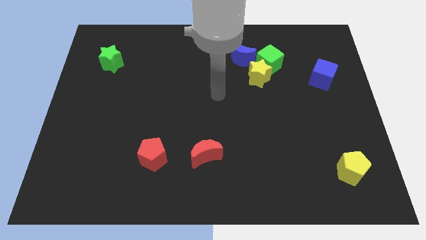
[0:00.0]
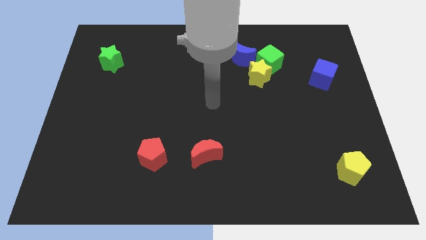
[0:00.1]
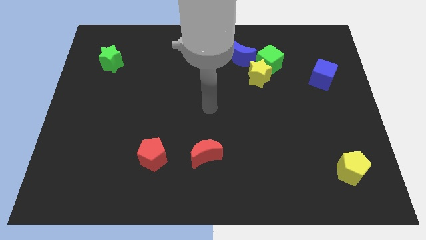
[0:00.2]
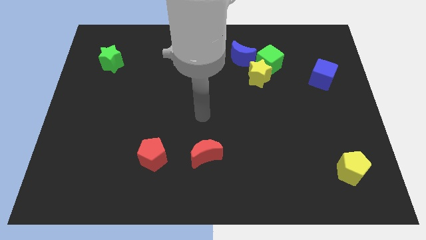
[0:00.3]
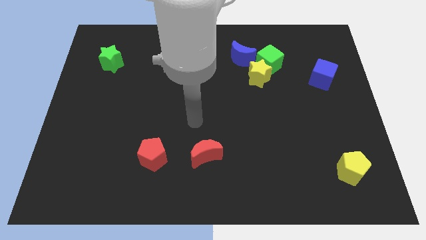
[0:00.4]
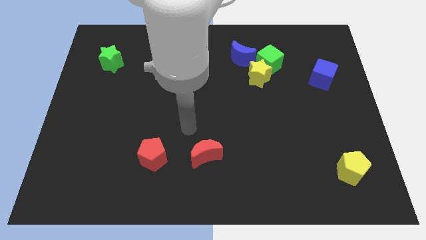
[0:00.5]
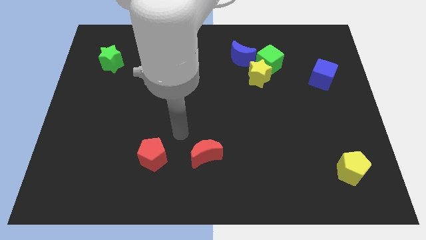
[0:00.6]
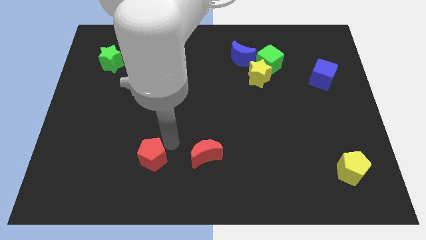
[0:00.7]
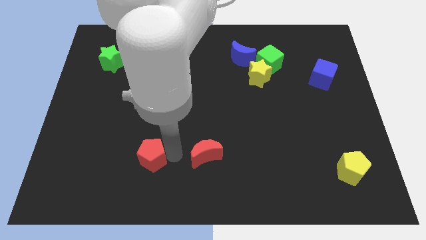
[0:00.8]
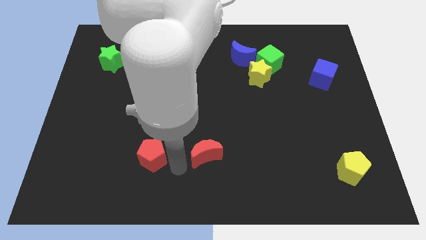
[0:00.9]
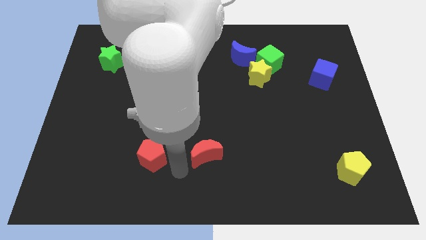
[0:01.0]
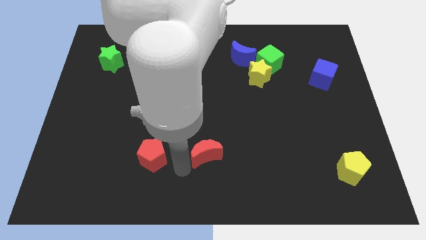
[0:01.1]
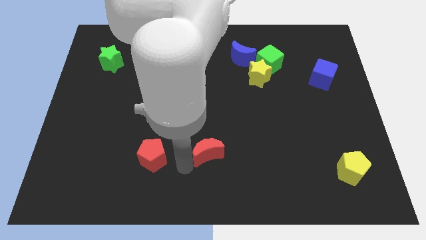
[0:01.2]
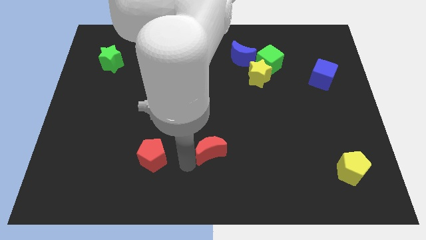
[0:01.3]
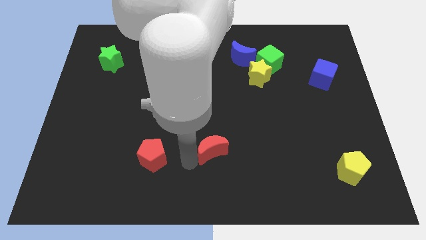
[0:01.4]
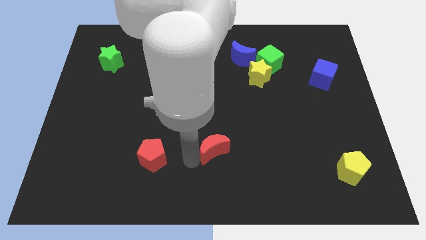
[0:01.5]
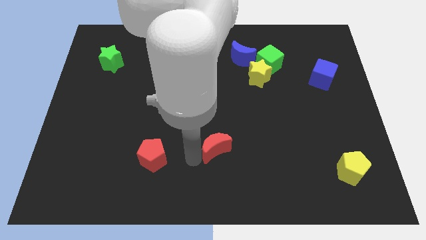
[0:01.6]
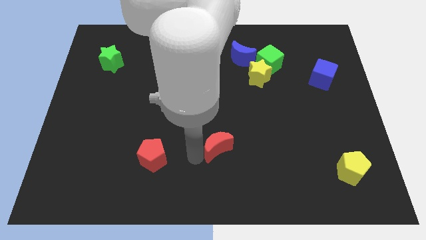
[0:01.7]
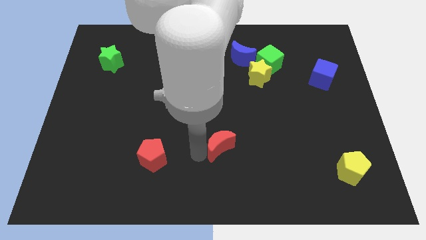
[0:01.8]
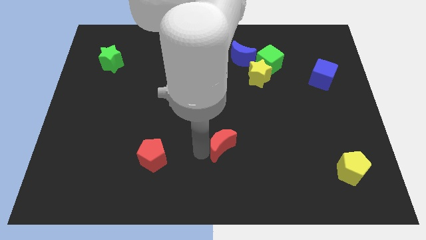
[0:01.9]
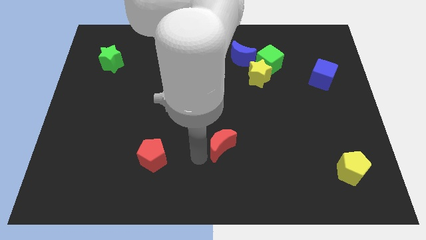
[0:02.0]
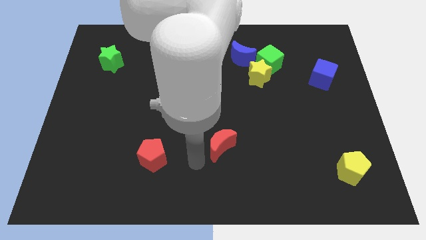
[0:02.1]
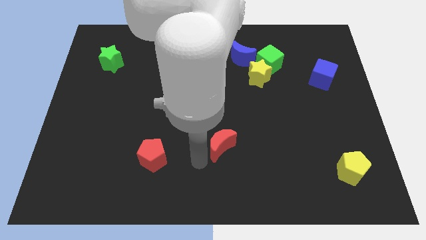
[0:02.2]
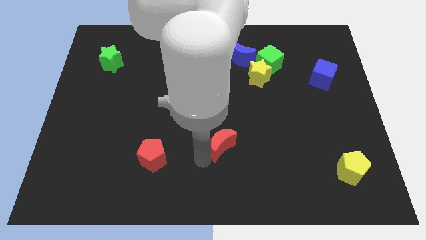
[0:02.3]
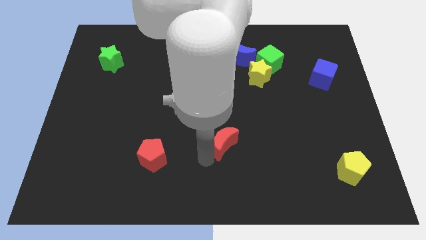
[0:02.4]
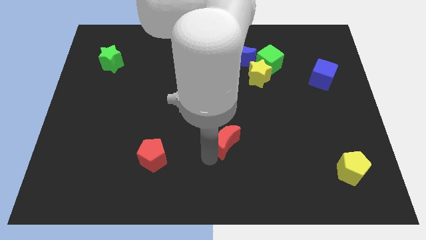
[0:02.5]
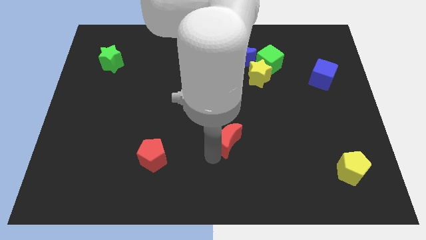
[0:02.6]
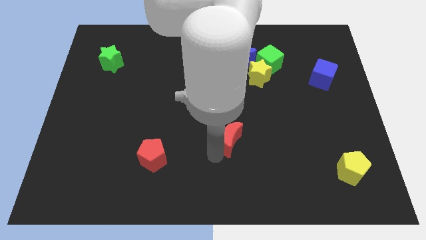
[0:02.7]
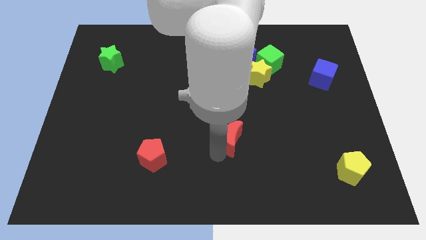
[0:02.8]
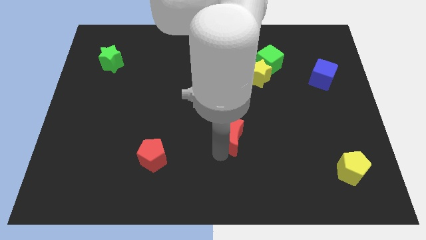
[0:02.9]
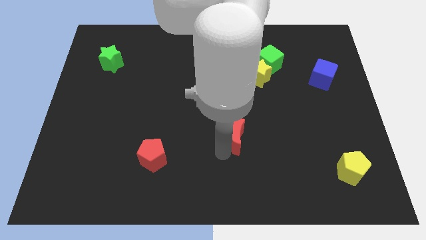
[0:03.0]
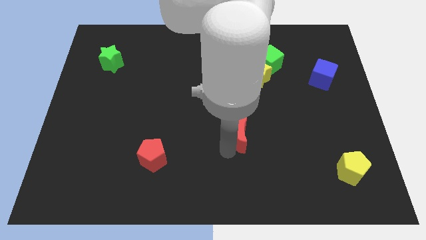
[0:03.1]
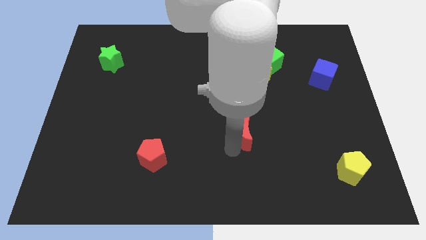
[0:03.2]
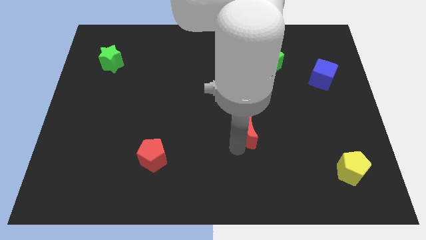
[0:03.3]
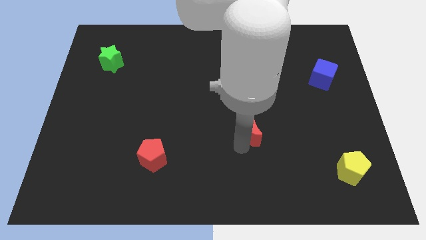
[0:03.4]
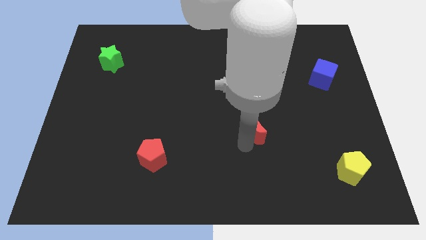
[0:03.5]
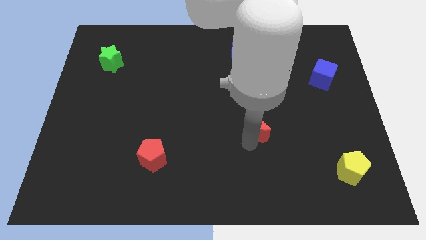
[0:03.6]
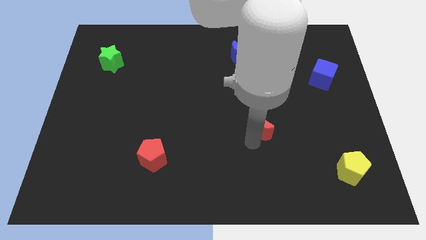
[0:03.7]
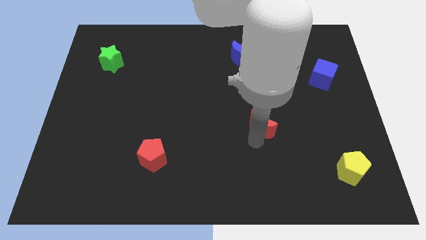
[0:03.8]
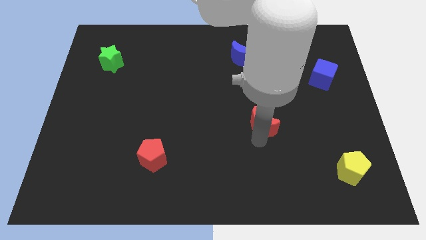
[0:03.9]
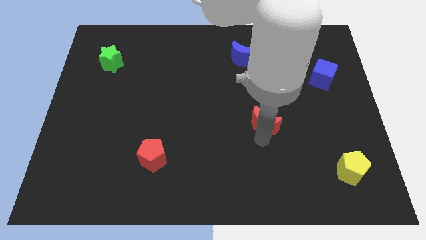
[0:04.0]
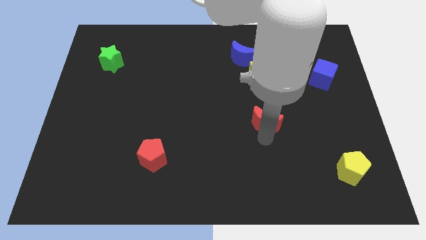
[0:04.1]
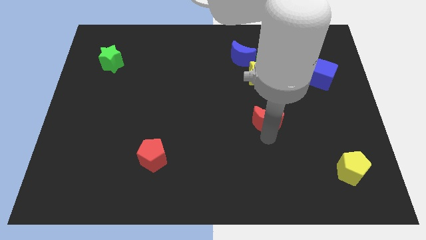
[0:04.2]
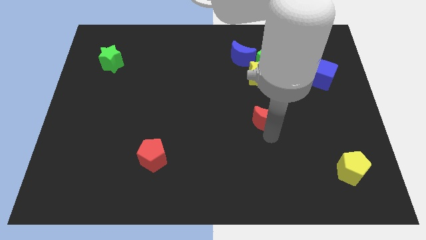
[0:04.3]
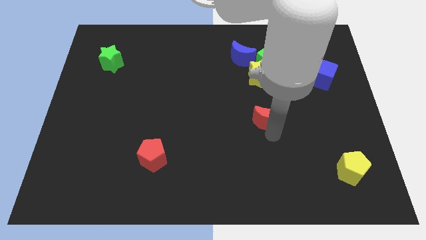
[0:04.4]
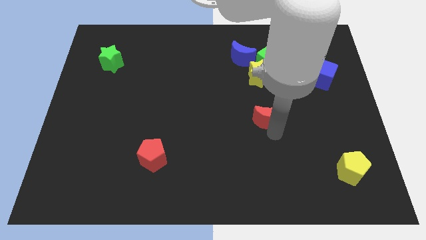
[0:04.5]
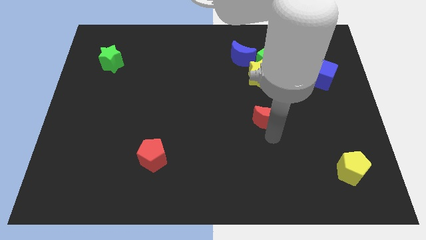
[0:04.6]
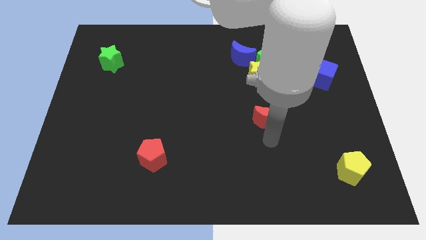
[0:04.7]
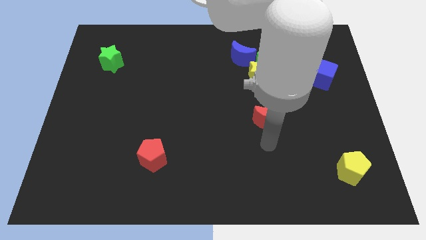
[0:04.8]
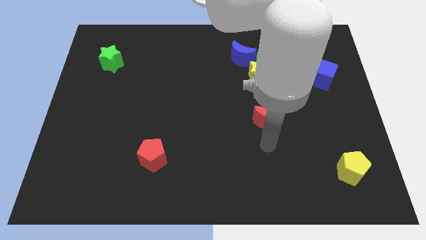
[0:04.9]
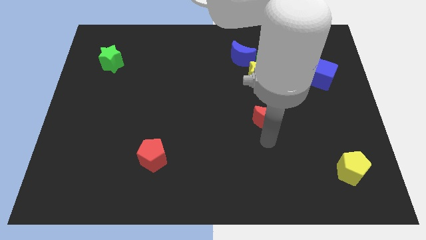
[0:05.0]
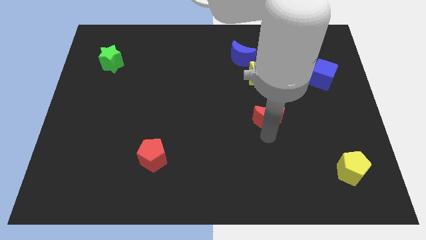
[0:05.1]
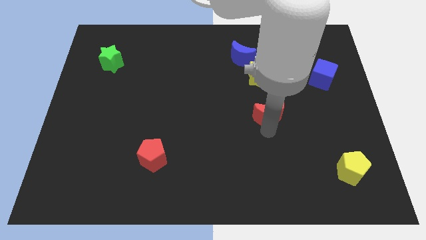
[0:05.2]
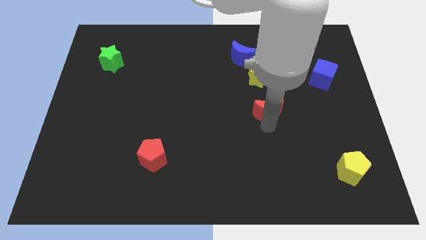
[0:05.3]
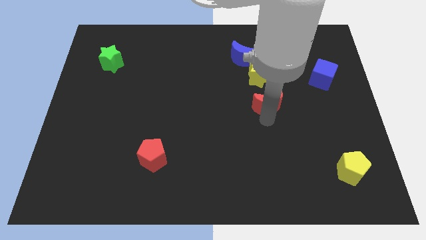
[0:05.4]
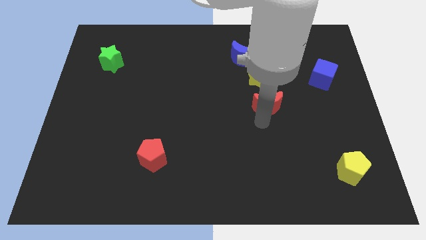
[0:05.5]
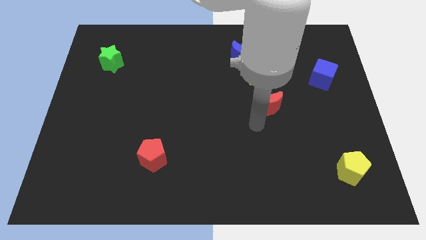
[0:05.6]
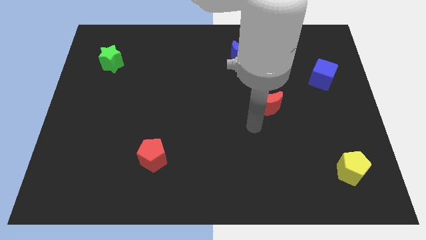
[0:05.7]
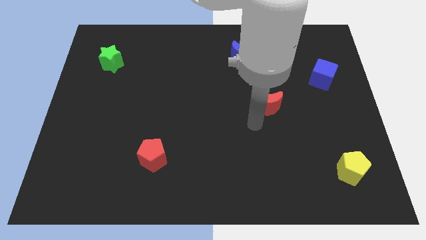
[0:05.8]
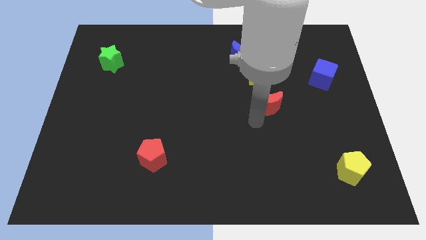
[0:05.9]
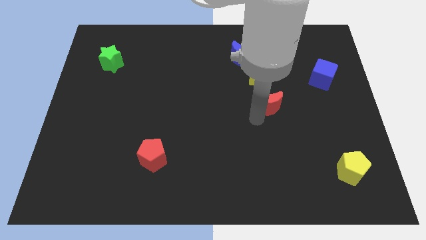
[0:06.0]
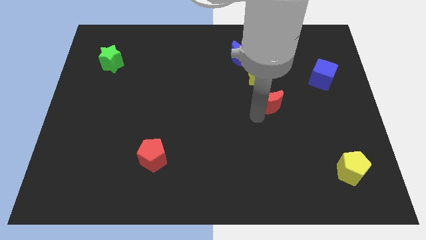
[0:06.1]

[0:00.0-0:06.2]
move the red moon up and then right

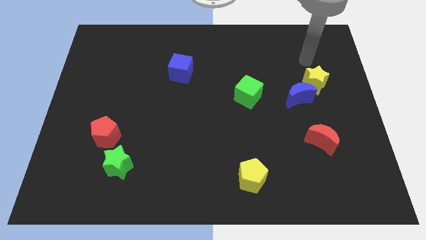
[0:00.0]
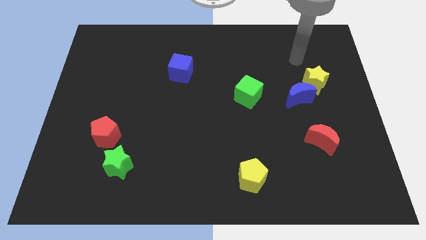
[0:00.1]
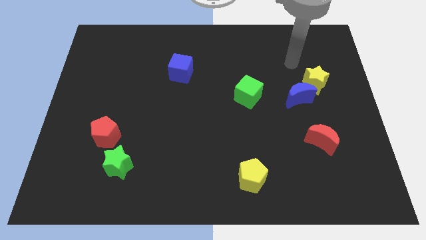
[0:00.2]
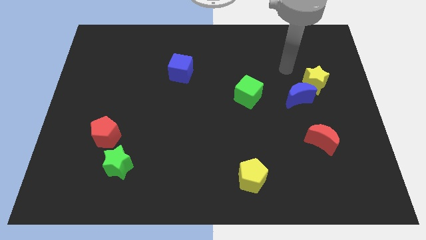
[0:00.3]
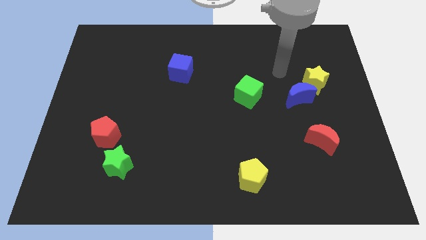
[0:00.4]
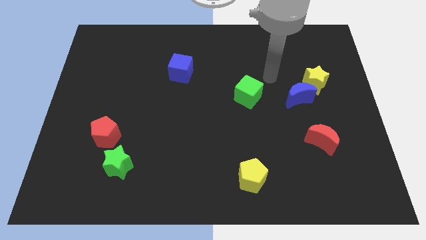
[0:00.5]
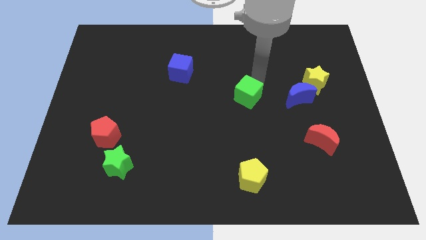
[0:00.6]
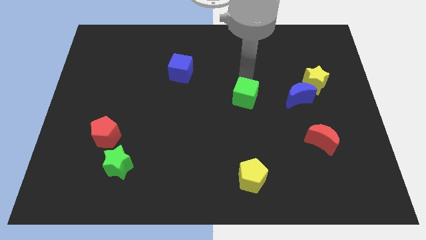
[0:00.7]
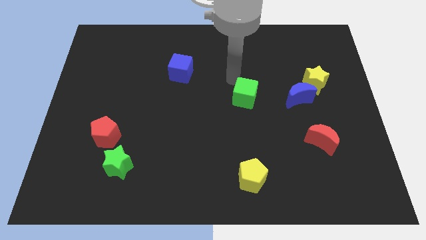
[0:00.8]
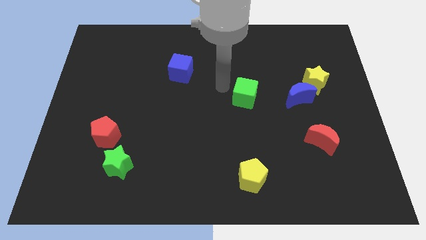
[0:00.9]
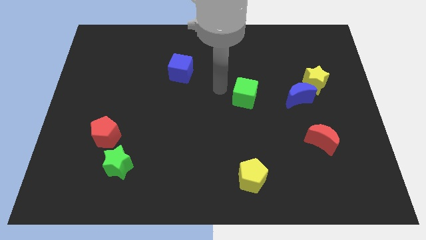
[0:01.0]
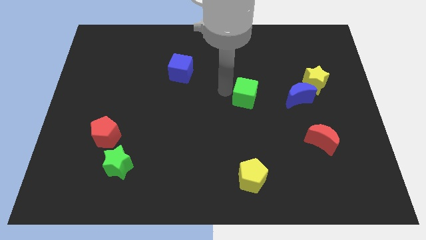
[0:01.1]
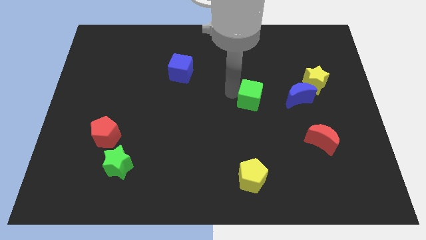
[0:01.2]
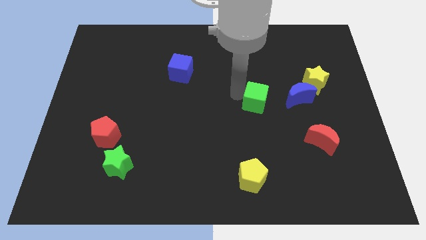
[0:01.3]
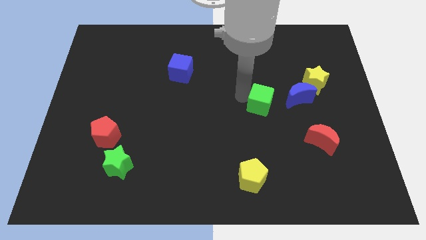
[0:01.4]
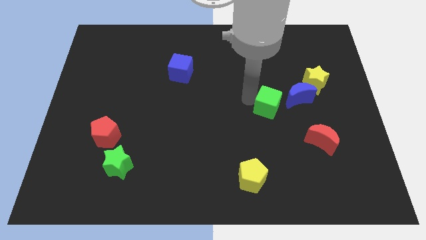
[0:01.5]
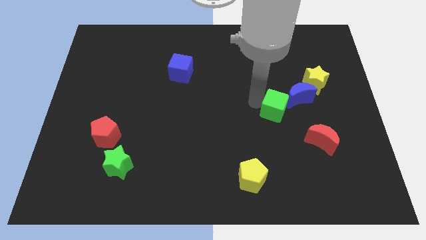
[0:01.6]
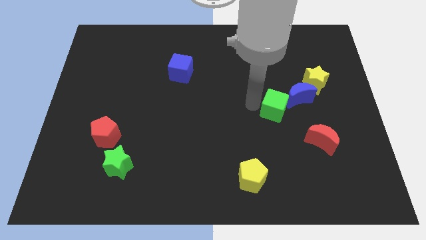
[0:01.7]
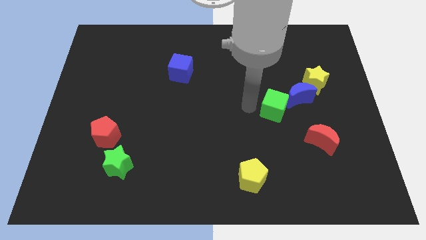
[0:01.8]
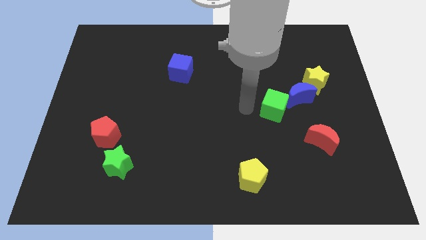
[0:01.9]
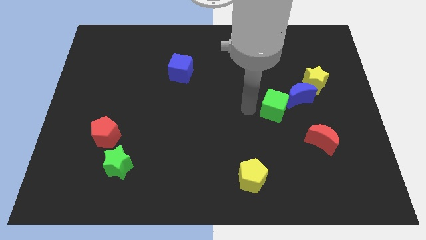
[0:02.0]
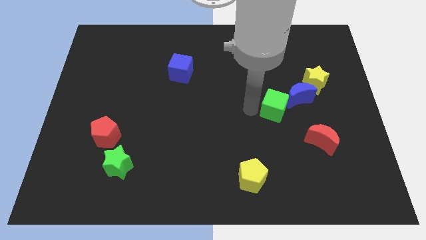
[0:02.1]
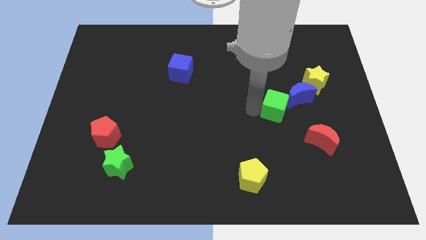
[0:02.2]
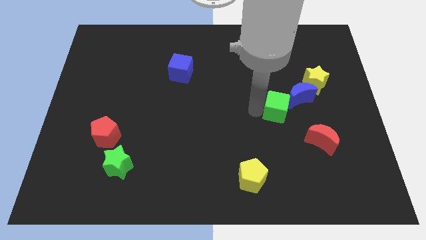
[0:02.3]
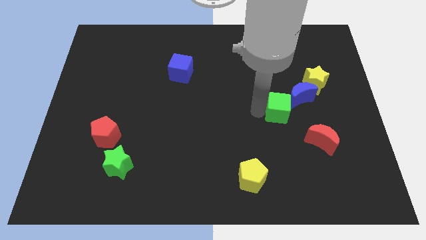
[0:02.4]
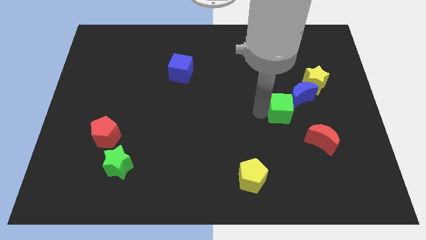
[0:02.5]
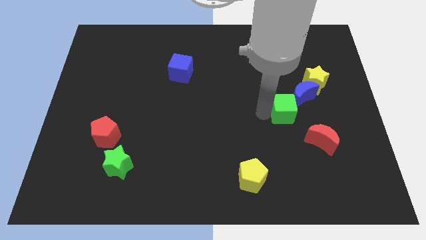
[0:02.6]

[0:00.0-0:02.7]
slightly slide the green cube right
